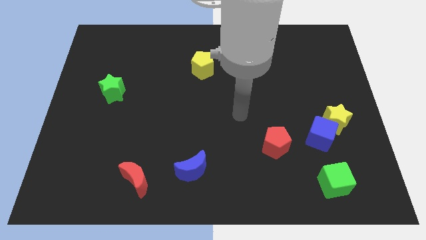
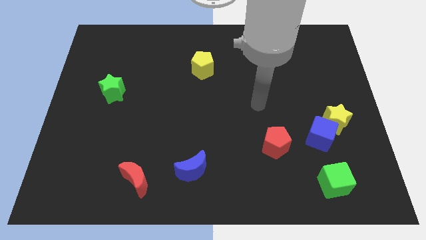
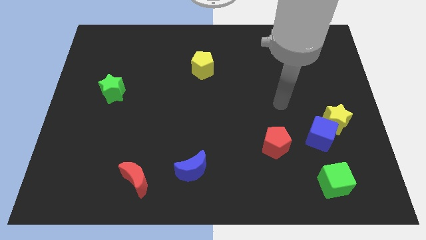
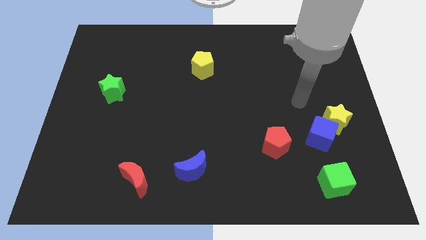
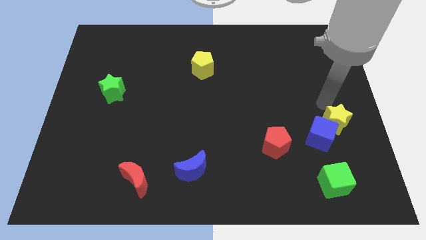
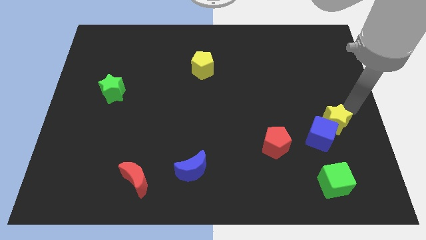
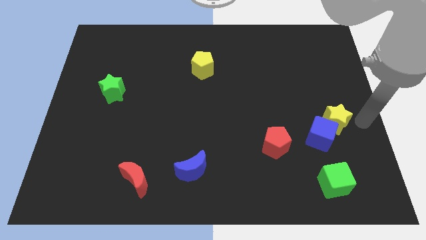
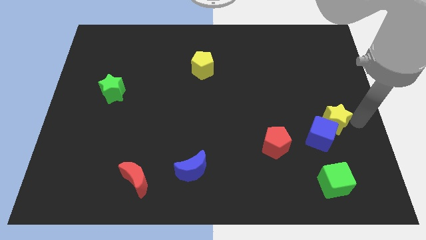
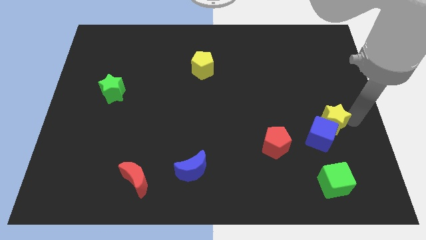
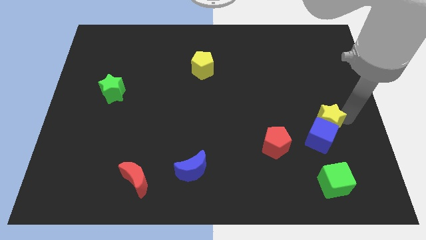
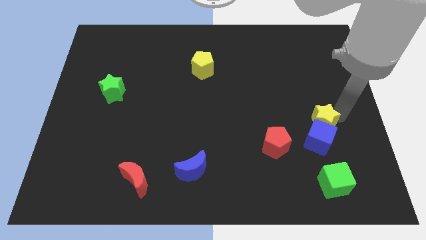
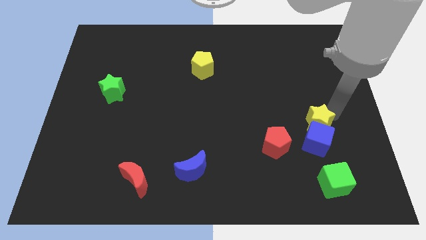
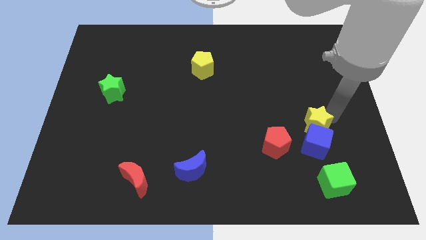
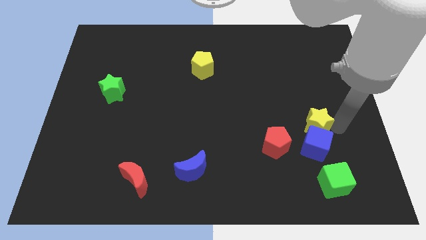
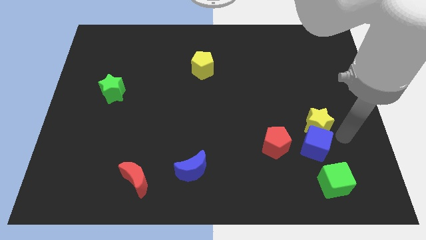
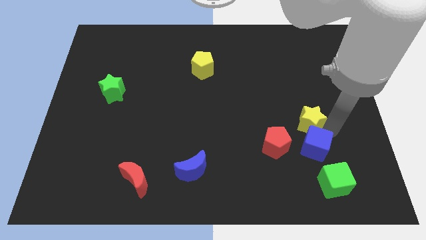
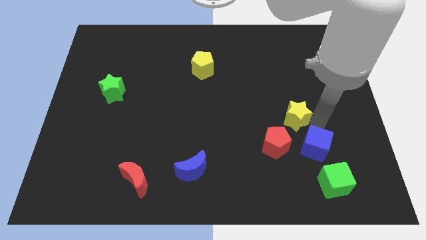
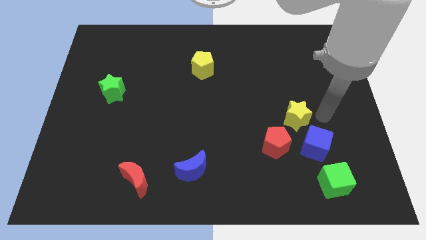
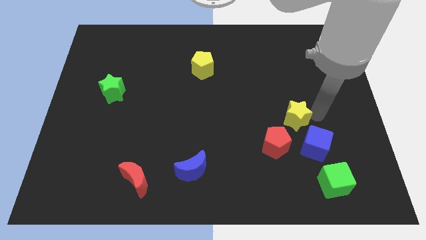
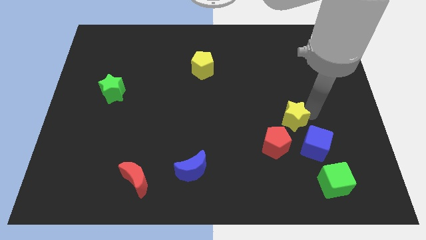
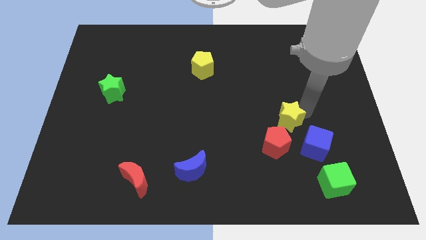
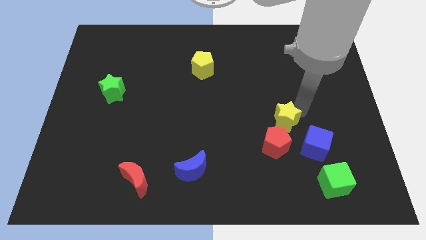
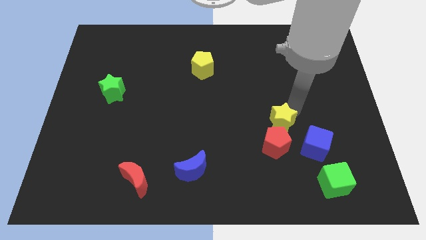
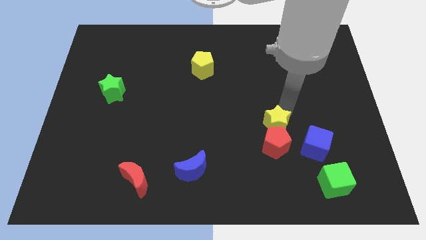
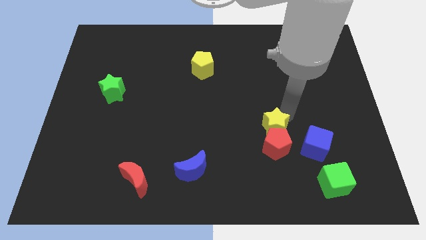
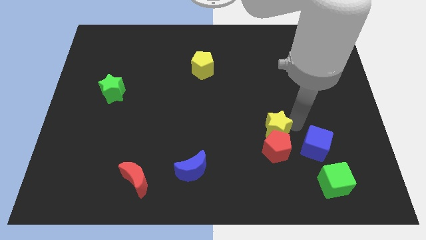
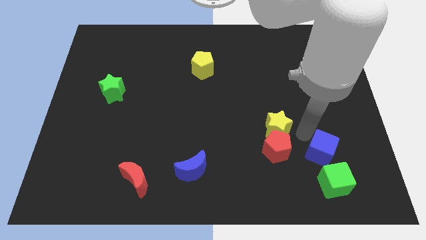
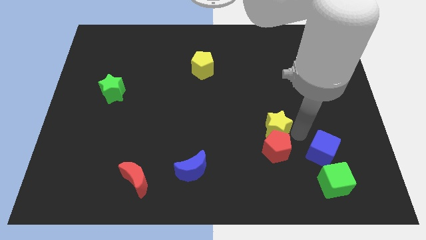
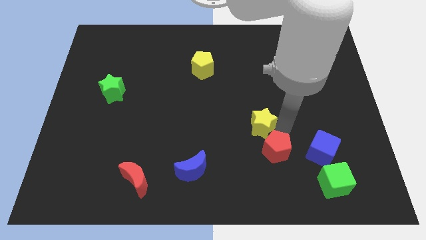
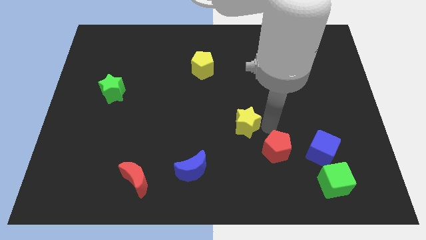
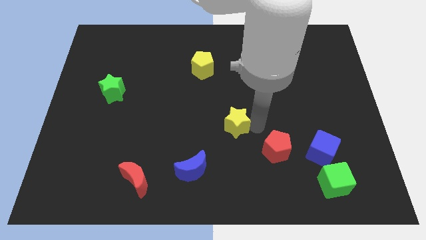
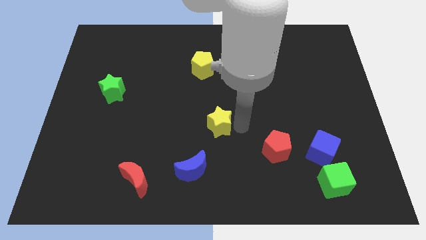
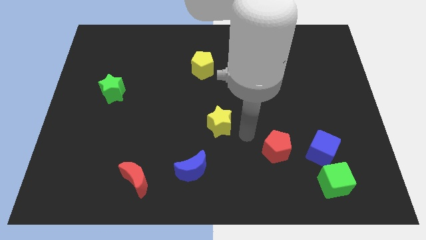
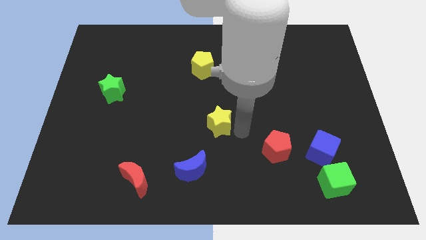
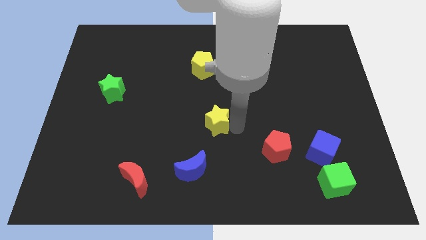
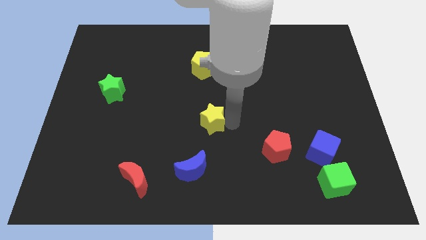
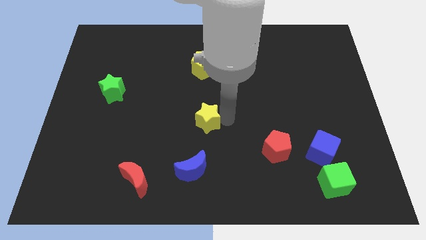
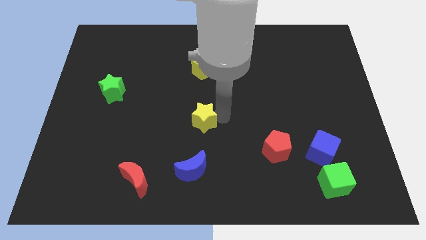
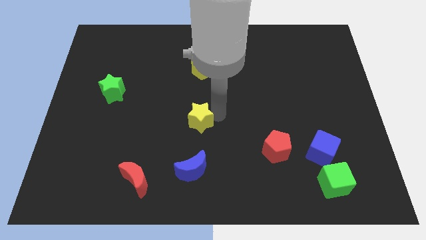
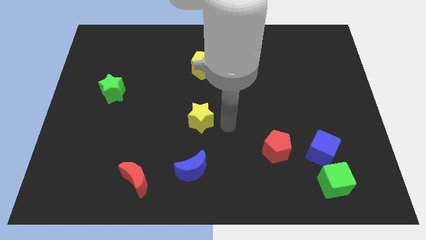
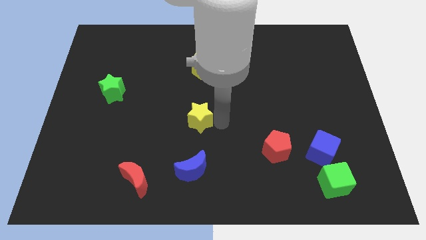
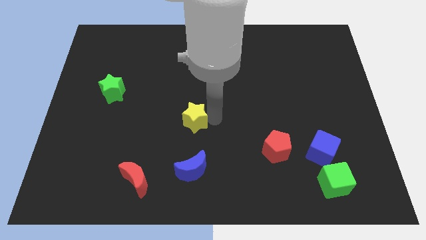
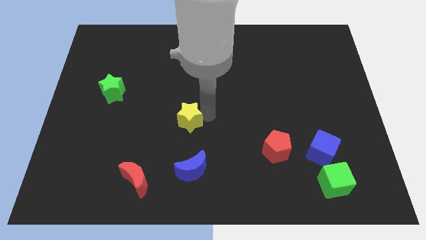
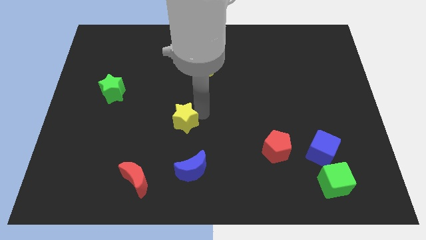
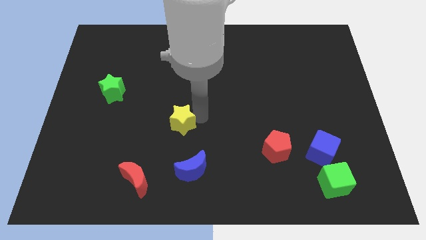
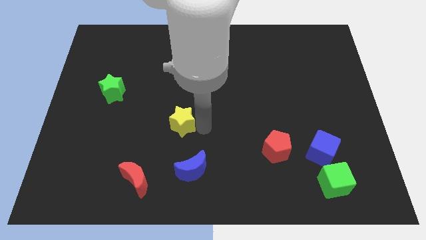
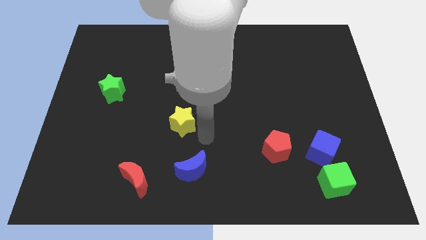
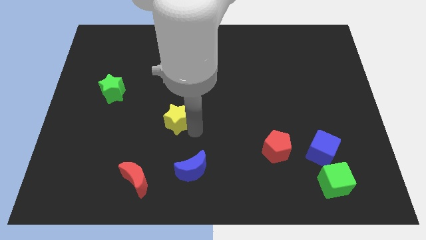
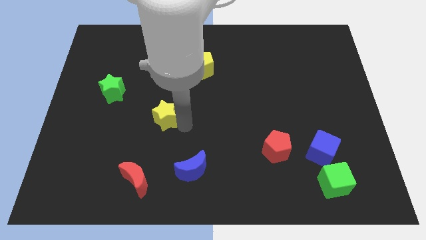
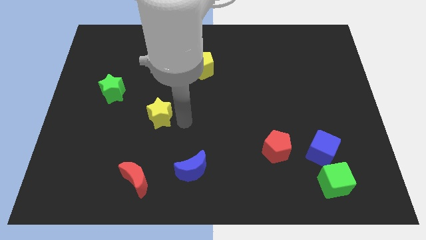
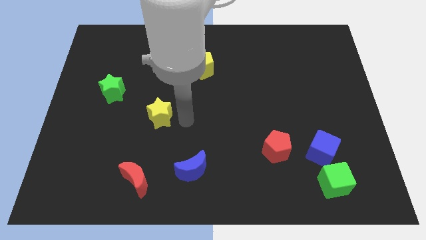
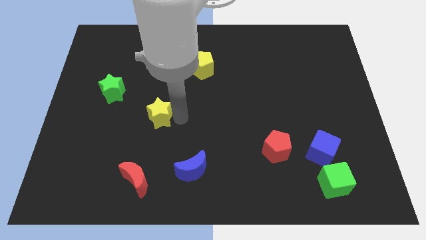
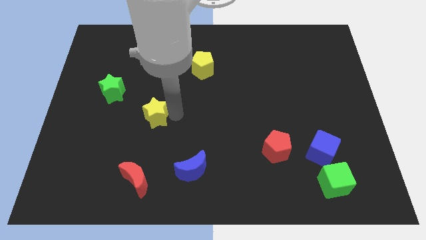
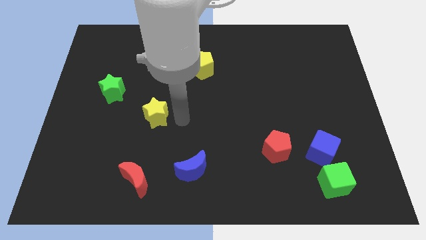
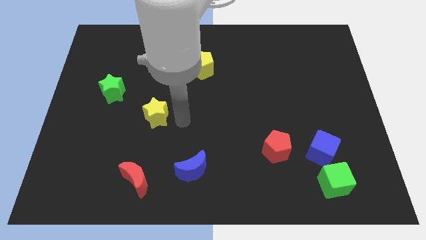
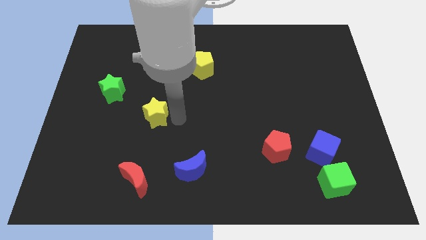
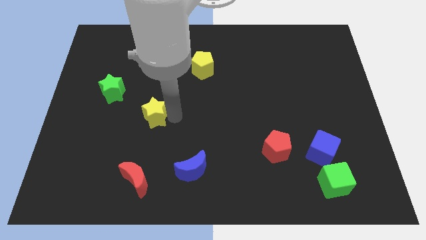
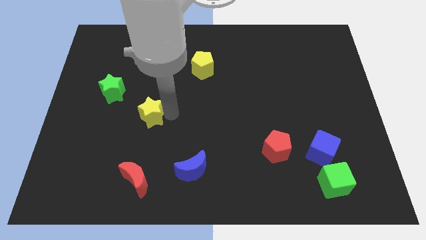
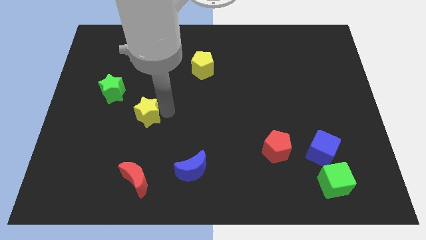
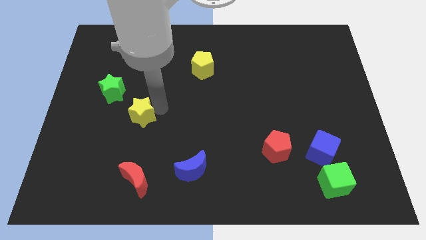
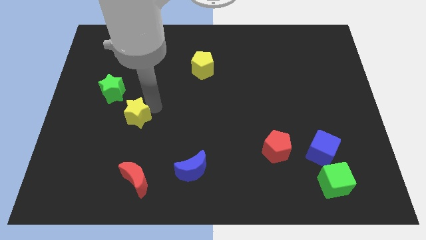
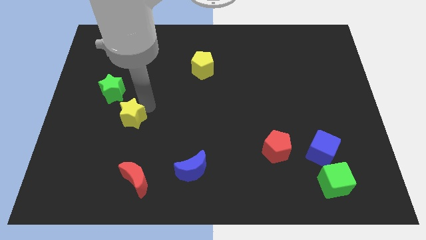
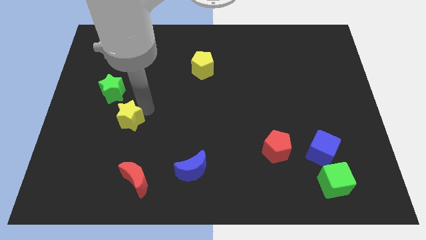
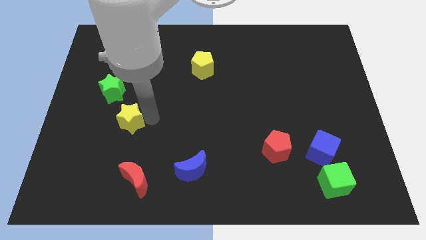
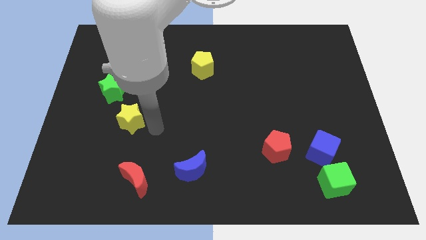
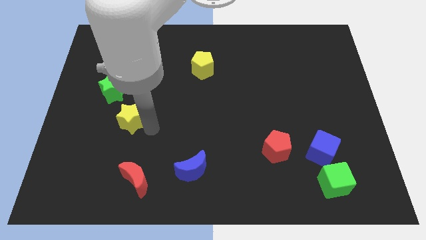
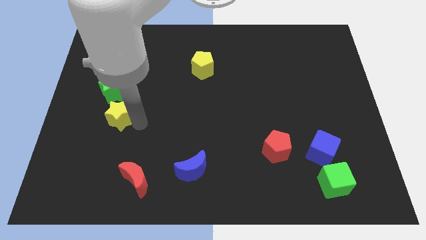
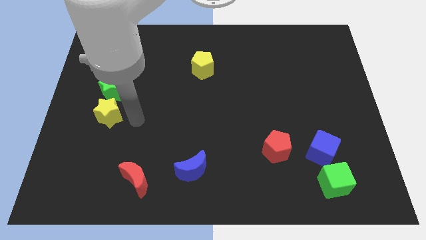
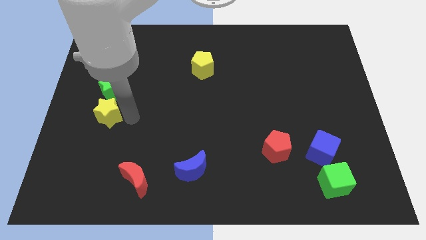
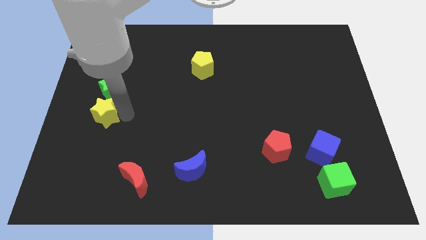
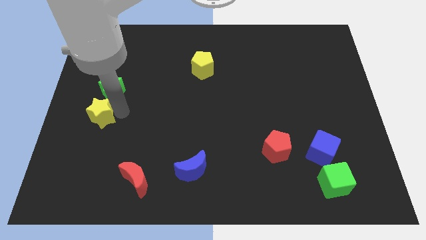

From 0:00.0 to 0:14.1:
push the yellow star to the left side of the board
